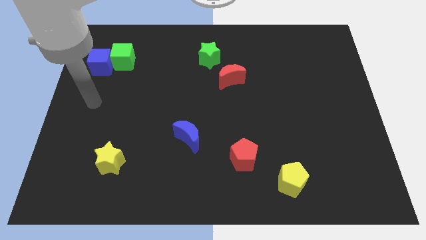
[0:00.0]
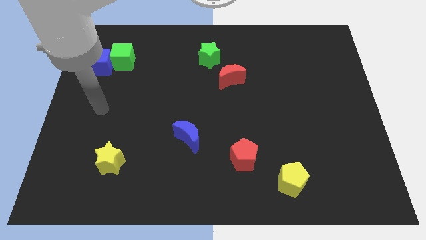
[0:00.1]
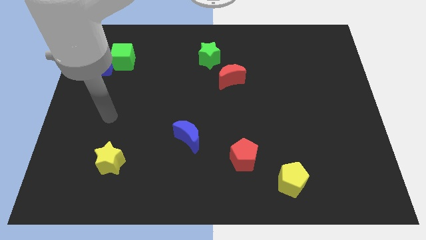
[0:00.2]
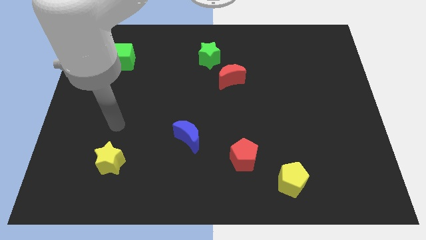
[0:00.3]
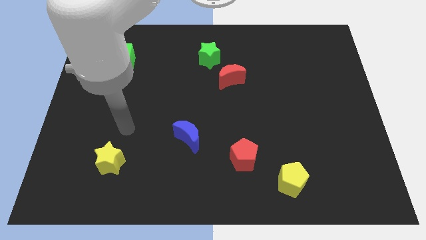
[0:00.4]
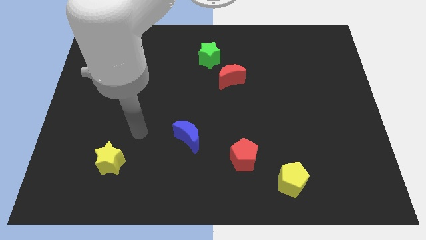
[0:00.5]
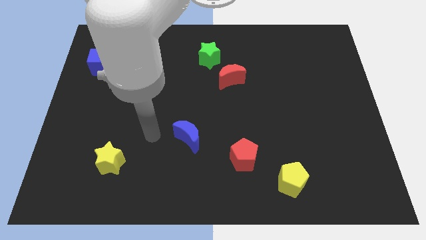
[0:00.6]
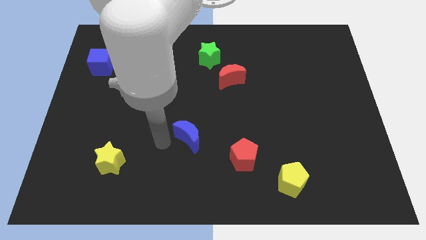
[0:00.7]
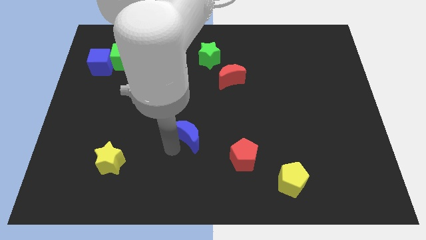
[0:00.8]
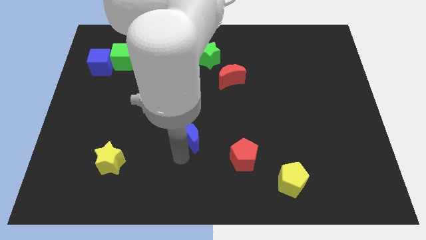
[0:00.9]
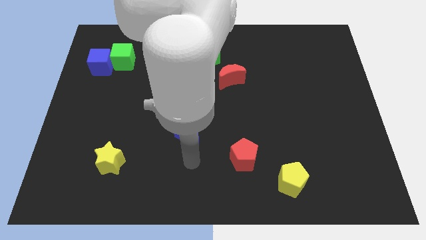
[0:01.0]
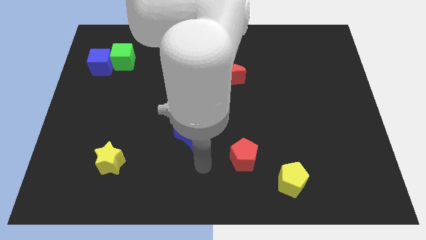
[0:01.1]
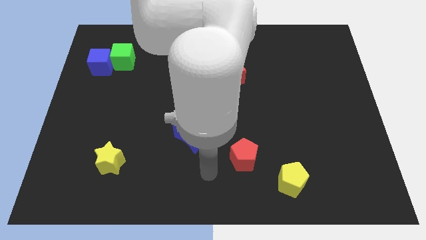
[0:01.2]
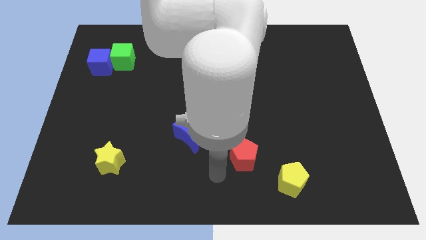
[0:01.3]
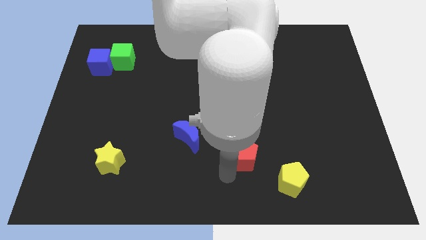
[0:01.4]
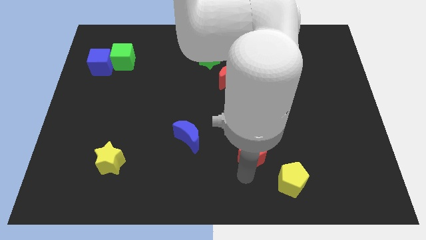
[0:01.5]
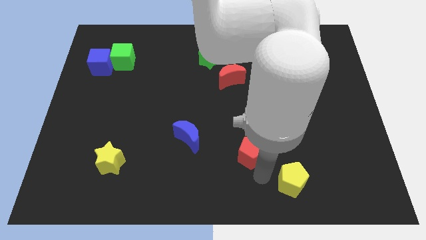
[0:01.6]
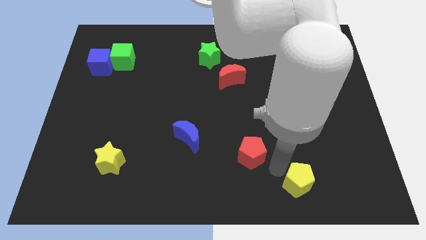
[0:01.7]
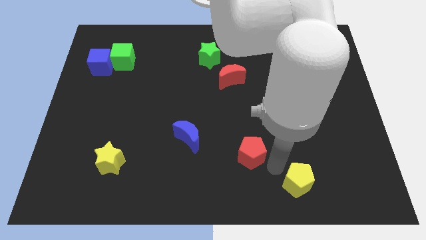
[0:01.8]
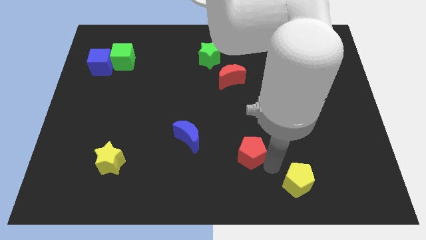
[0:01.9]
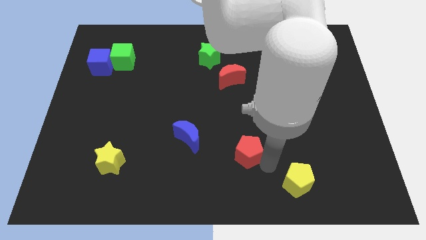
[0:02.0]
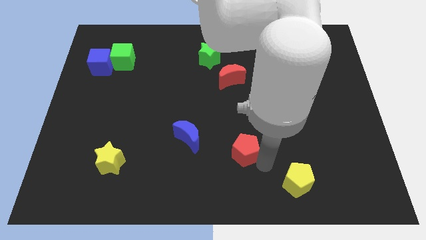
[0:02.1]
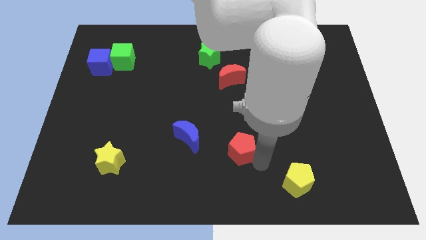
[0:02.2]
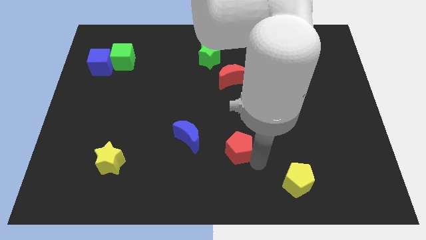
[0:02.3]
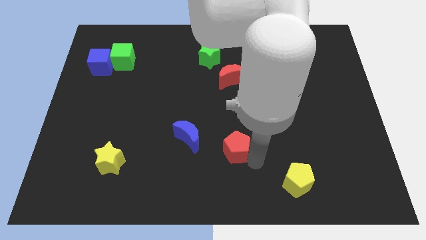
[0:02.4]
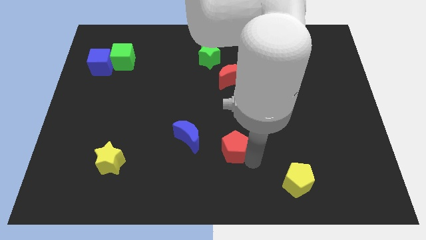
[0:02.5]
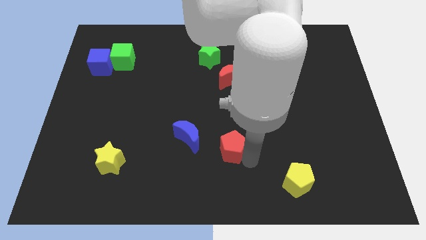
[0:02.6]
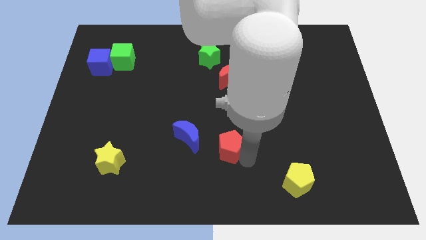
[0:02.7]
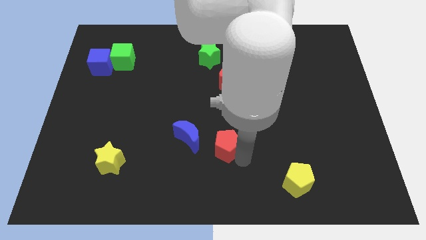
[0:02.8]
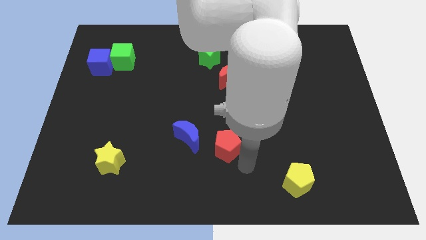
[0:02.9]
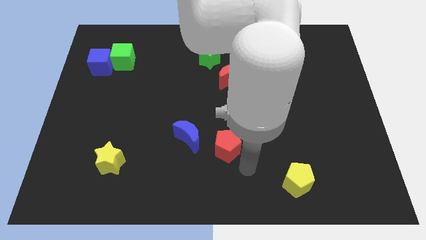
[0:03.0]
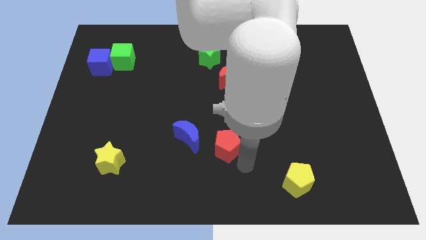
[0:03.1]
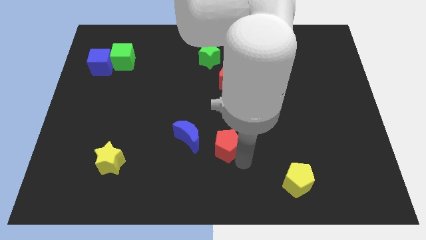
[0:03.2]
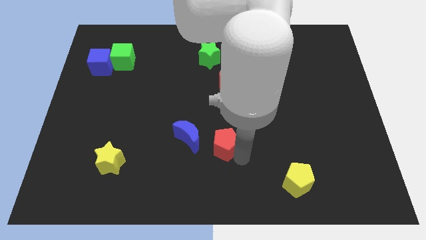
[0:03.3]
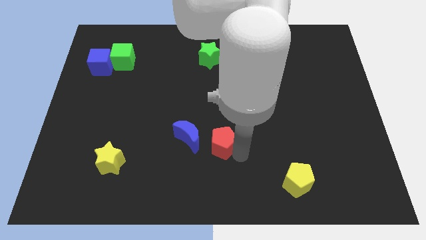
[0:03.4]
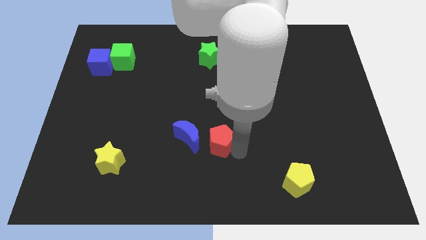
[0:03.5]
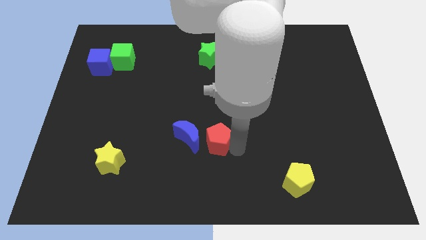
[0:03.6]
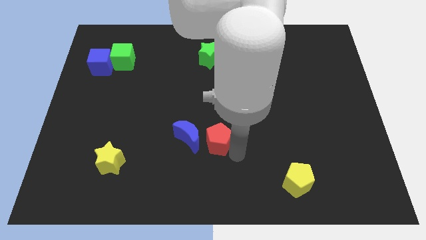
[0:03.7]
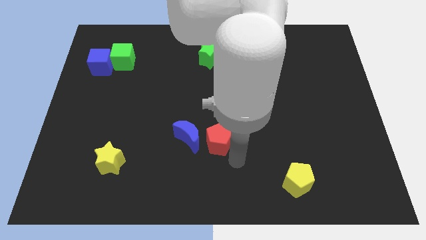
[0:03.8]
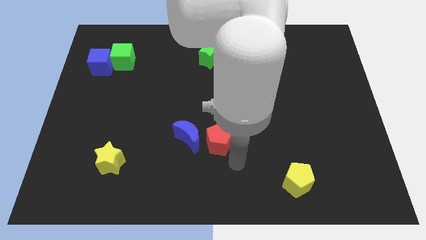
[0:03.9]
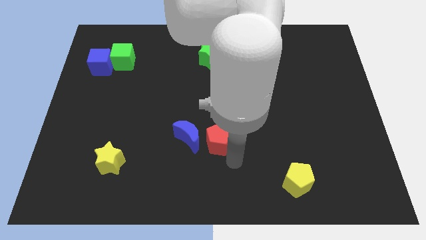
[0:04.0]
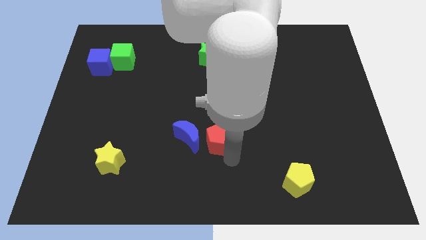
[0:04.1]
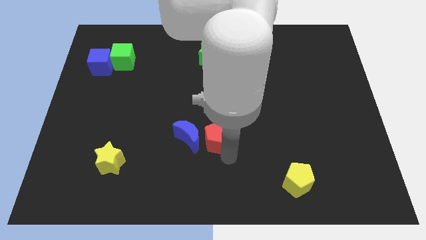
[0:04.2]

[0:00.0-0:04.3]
slide the red pentagon up and left diagonally slightly

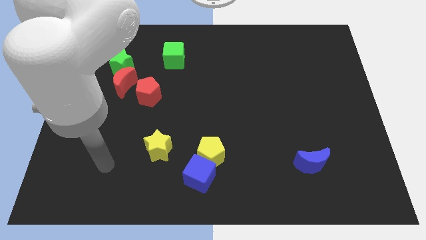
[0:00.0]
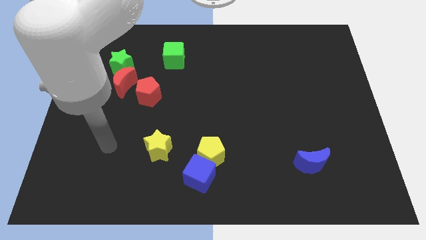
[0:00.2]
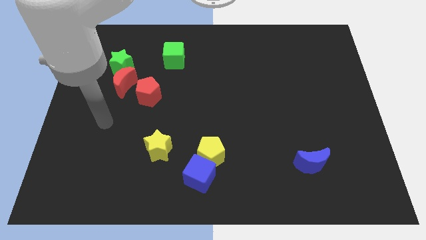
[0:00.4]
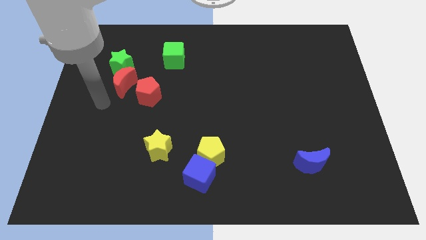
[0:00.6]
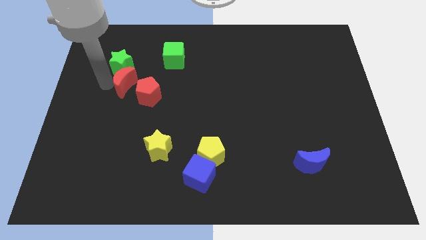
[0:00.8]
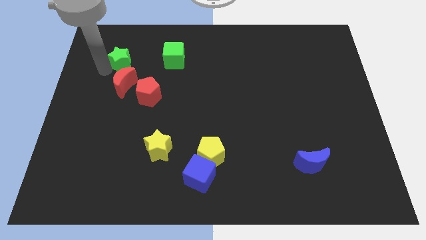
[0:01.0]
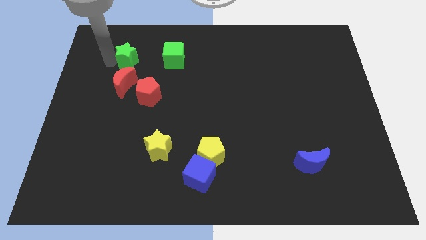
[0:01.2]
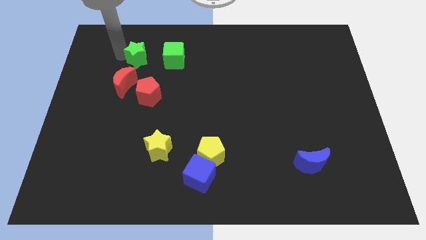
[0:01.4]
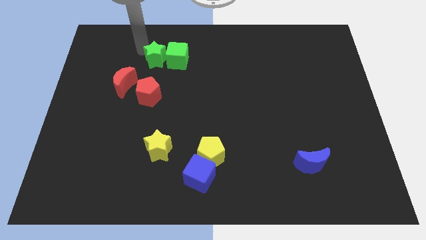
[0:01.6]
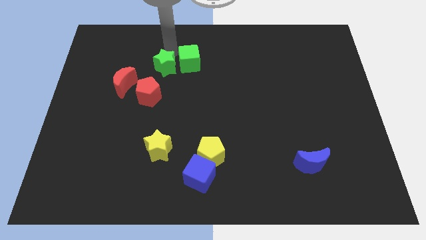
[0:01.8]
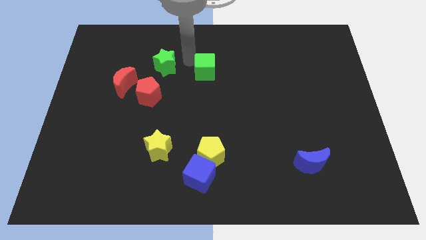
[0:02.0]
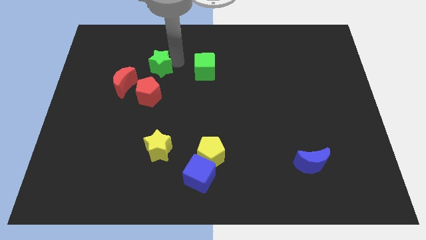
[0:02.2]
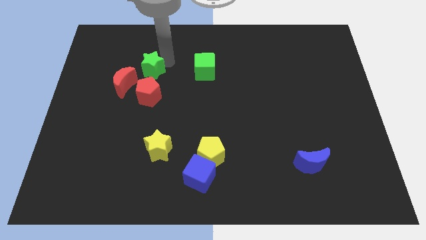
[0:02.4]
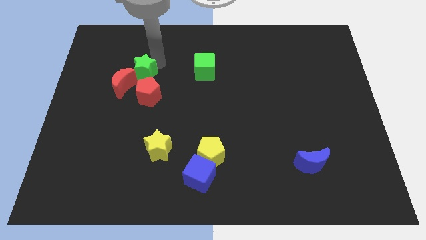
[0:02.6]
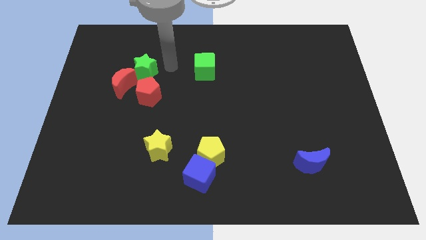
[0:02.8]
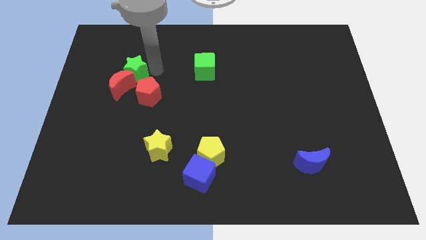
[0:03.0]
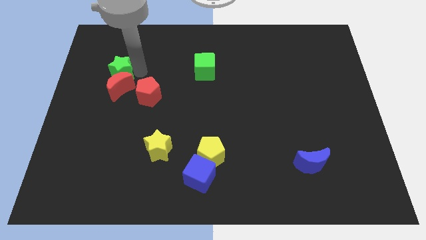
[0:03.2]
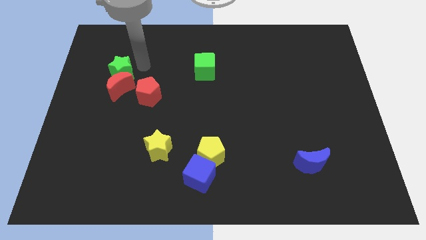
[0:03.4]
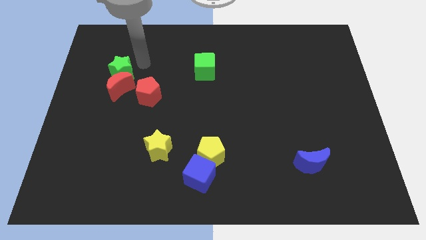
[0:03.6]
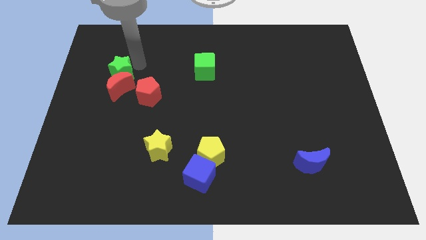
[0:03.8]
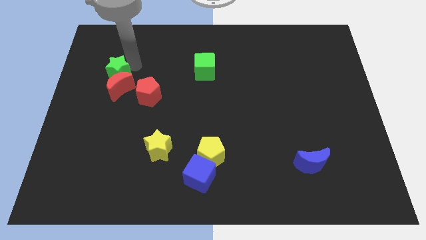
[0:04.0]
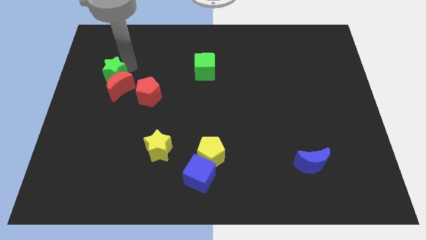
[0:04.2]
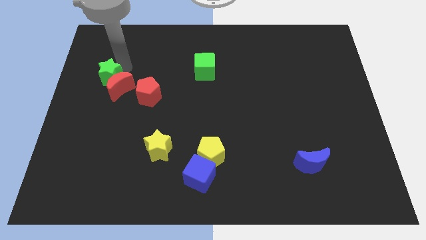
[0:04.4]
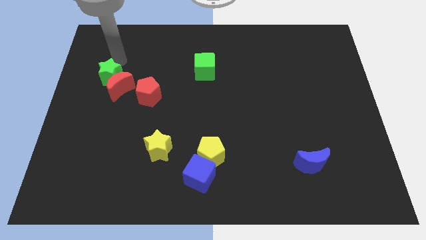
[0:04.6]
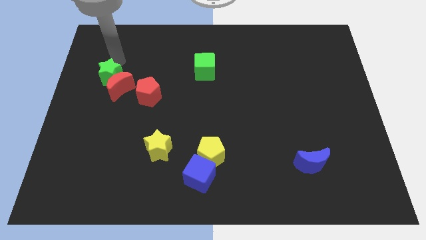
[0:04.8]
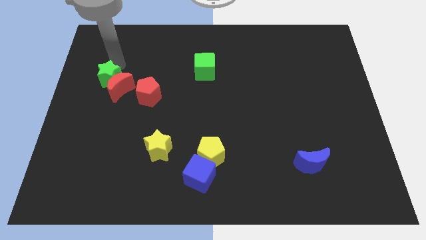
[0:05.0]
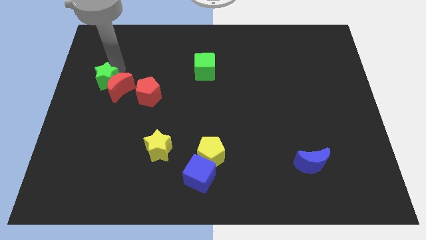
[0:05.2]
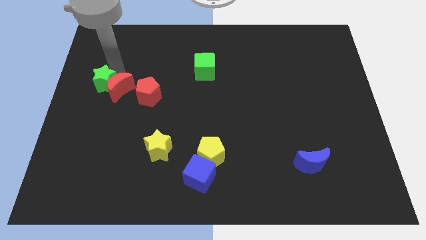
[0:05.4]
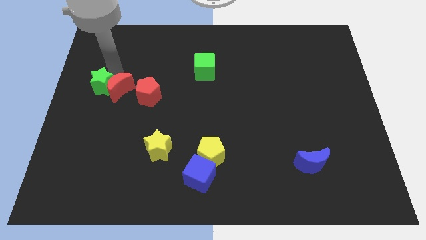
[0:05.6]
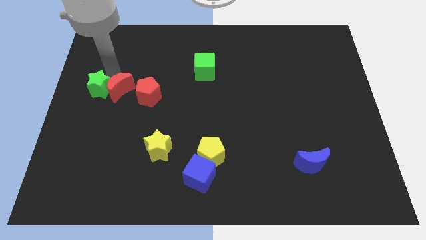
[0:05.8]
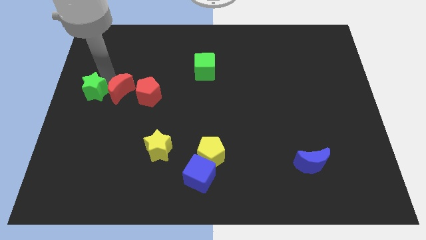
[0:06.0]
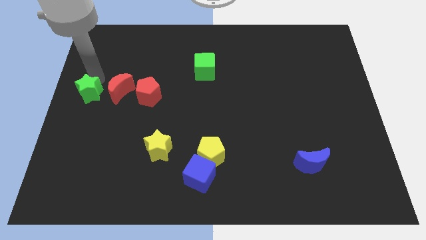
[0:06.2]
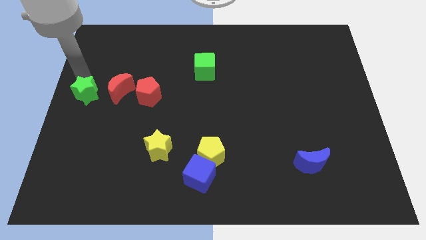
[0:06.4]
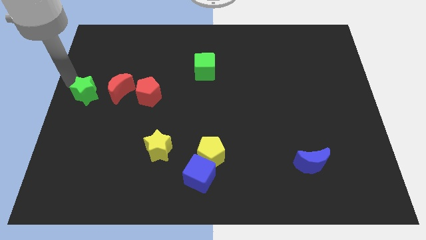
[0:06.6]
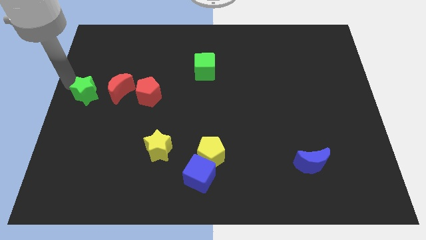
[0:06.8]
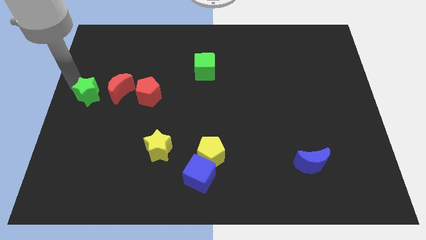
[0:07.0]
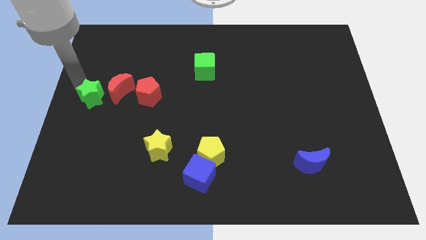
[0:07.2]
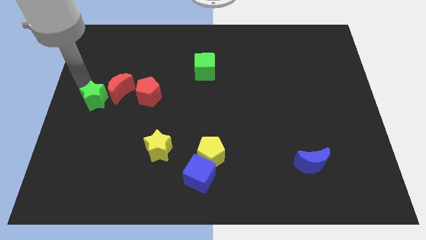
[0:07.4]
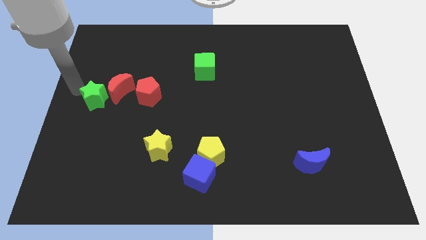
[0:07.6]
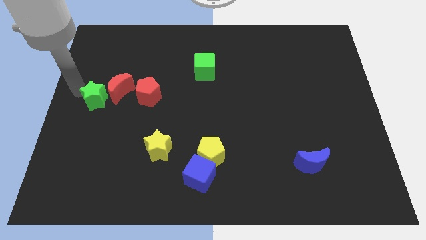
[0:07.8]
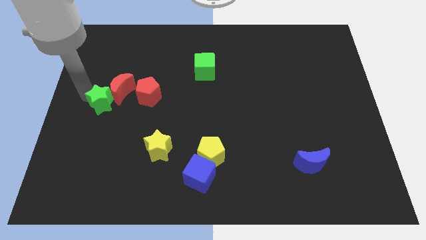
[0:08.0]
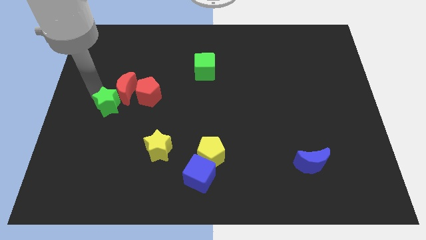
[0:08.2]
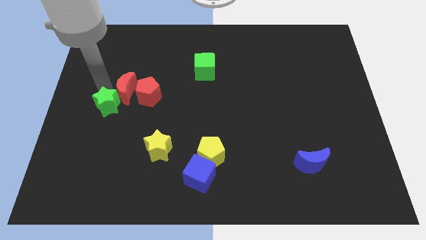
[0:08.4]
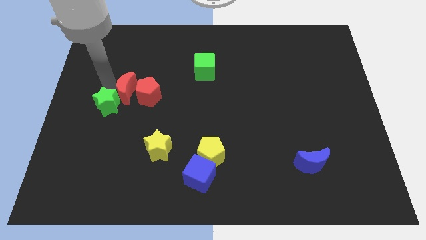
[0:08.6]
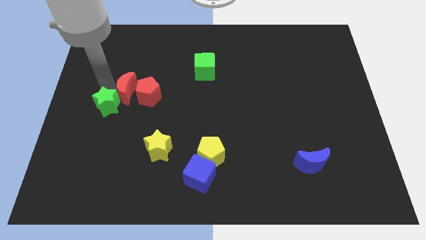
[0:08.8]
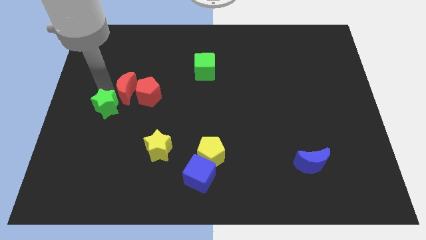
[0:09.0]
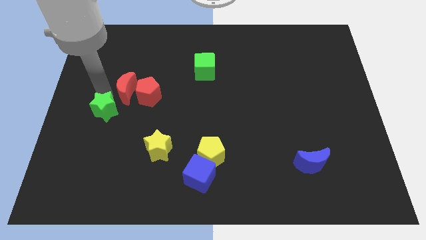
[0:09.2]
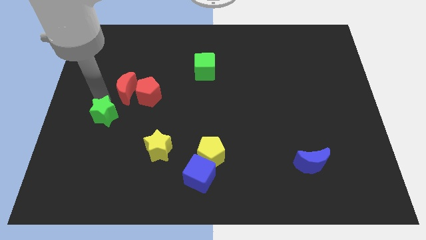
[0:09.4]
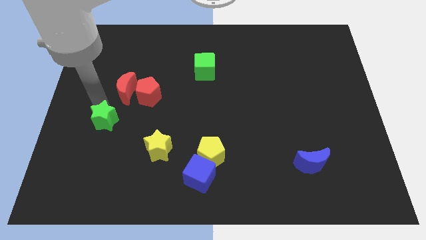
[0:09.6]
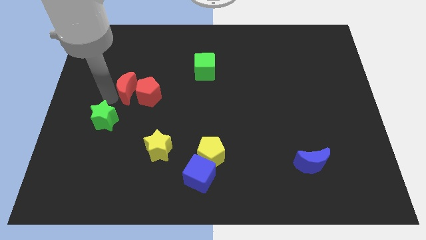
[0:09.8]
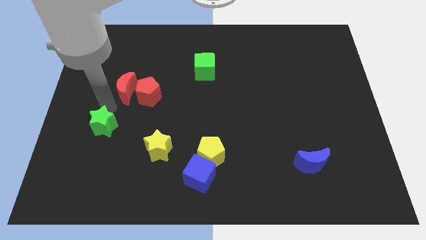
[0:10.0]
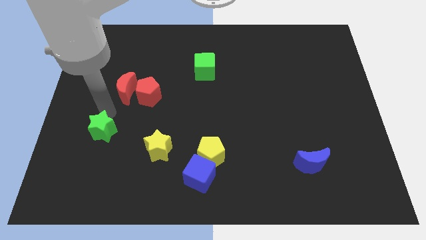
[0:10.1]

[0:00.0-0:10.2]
move the green star down
